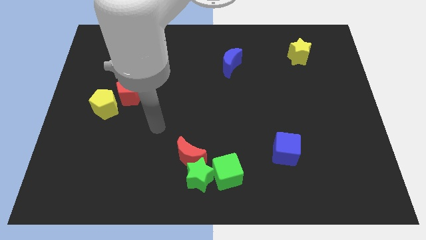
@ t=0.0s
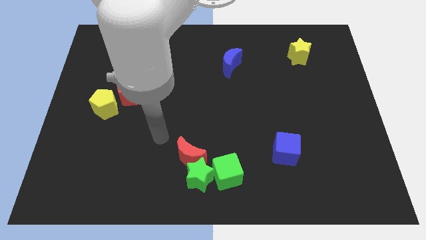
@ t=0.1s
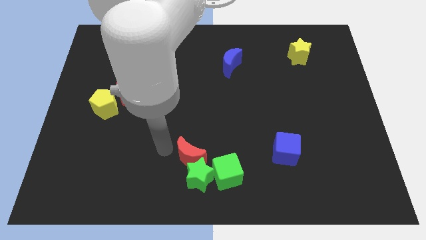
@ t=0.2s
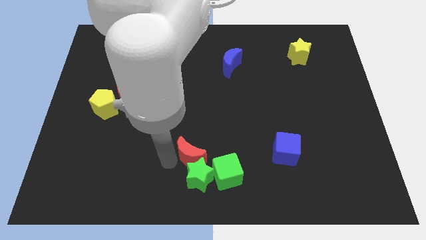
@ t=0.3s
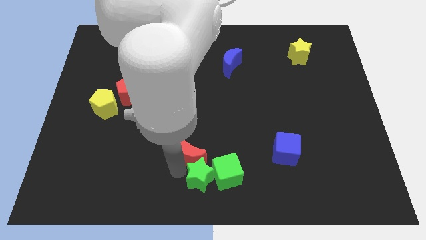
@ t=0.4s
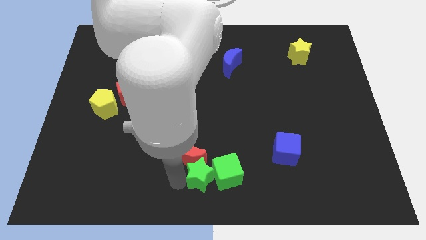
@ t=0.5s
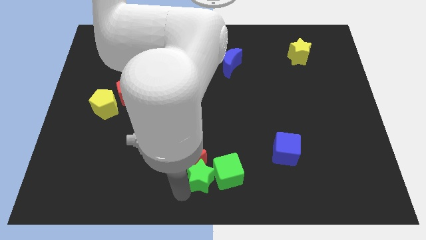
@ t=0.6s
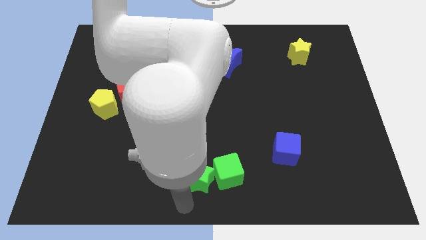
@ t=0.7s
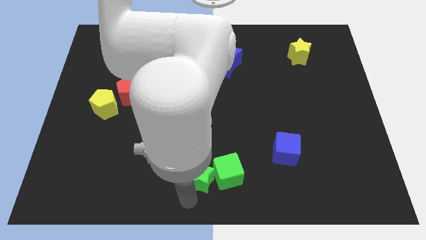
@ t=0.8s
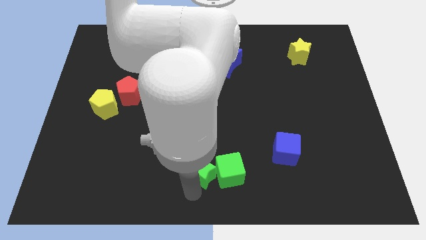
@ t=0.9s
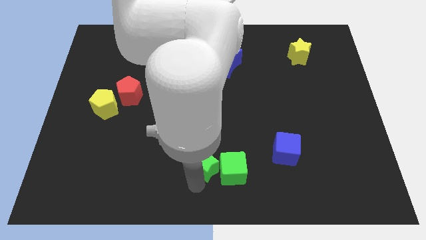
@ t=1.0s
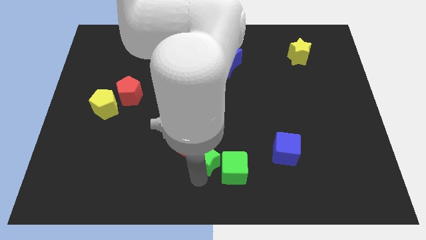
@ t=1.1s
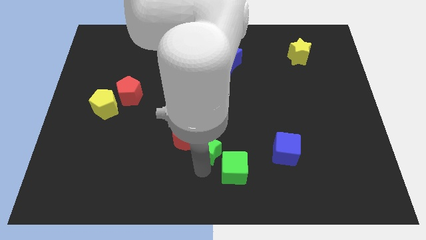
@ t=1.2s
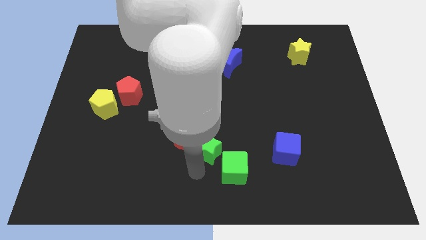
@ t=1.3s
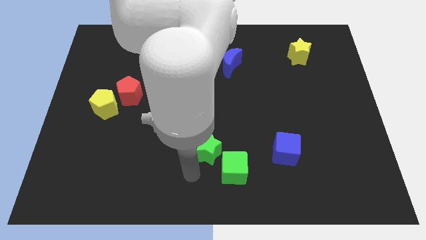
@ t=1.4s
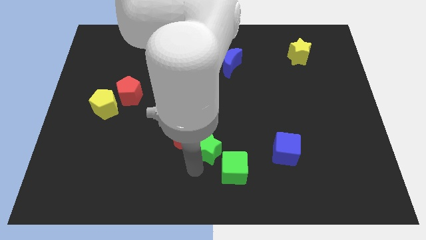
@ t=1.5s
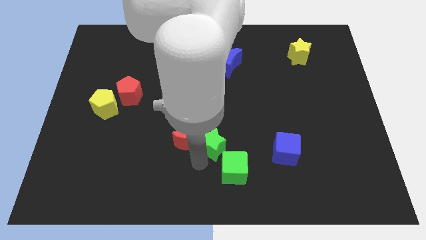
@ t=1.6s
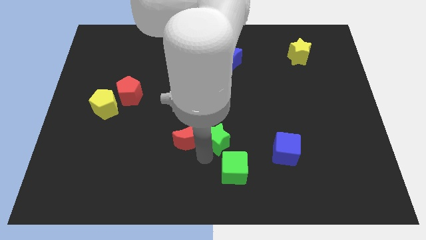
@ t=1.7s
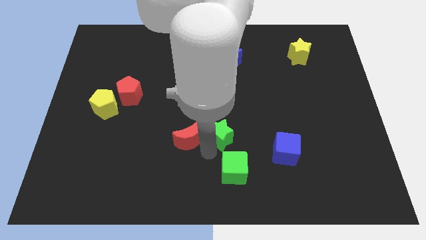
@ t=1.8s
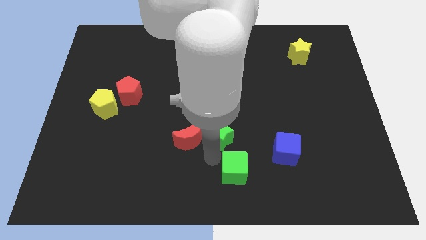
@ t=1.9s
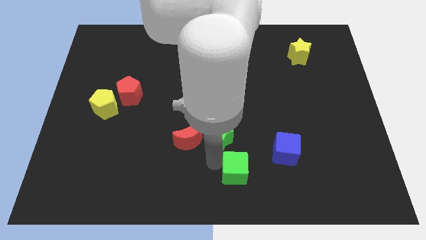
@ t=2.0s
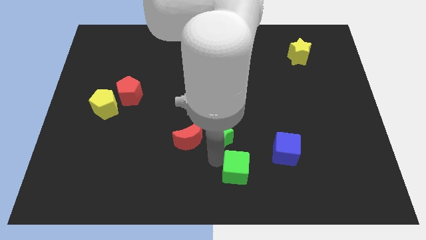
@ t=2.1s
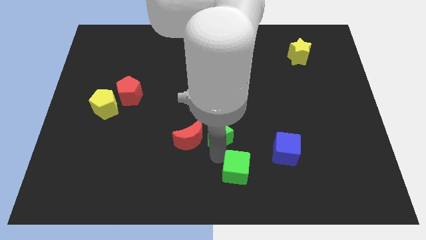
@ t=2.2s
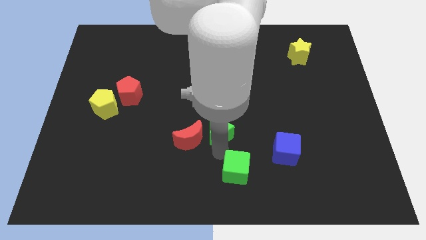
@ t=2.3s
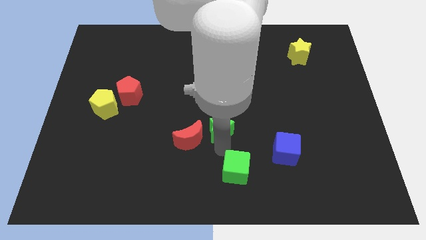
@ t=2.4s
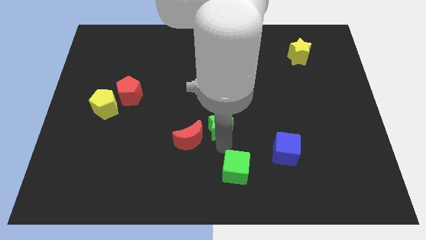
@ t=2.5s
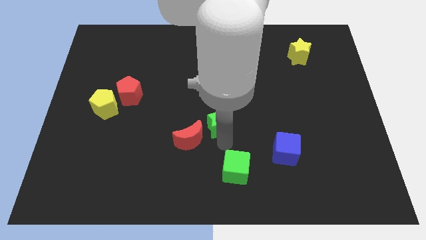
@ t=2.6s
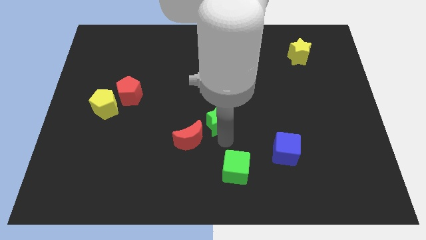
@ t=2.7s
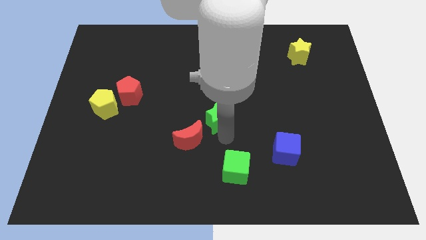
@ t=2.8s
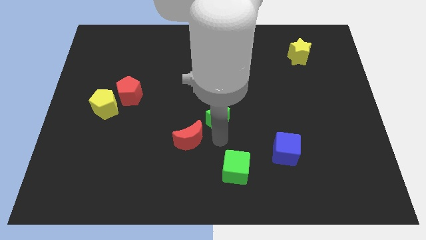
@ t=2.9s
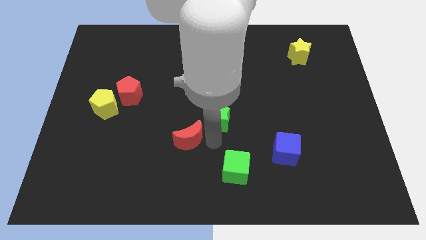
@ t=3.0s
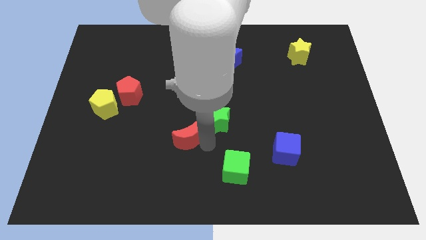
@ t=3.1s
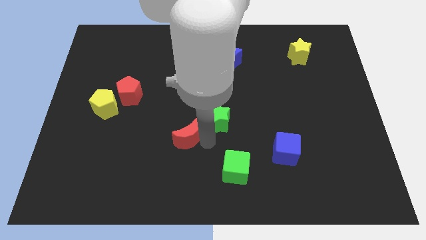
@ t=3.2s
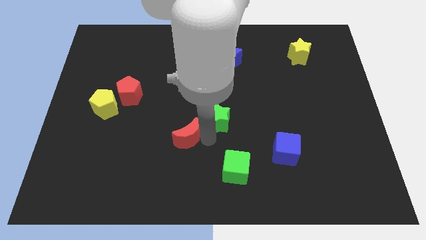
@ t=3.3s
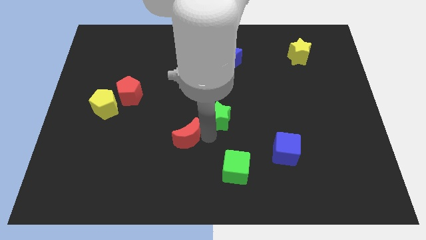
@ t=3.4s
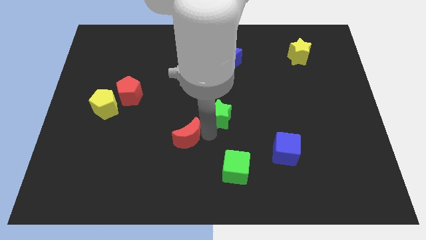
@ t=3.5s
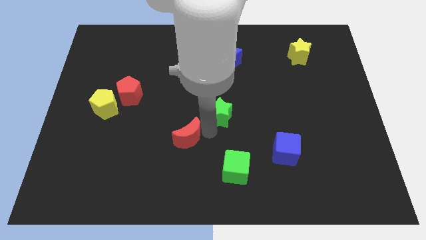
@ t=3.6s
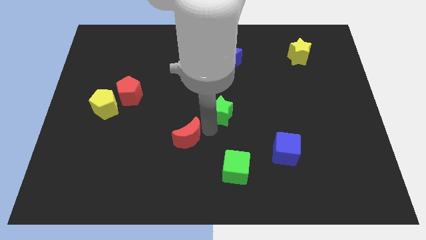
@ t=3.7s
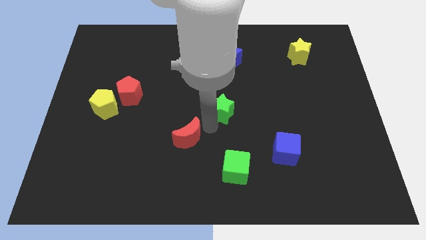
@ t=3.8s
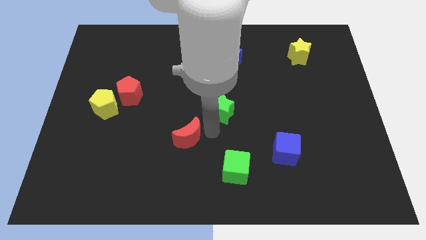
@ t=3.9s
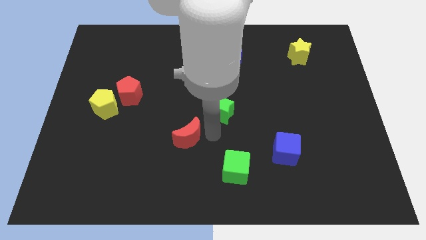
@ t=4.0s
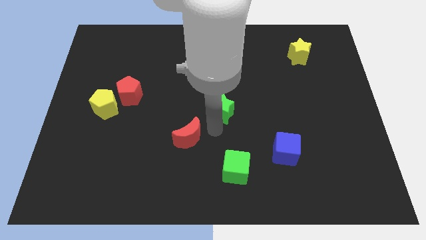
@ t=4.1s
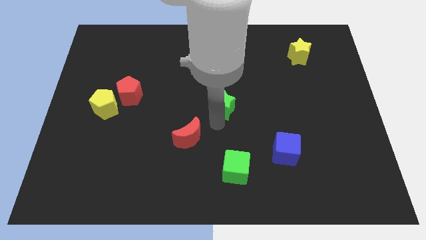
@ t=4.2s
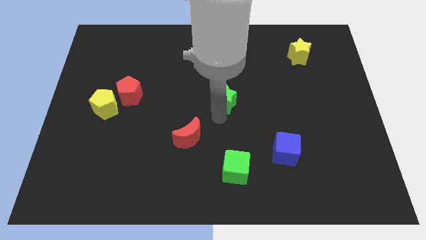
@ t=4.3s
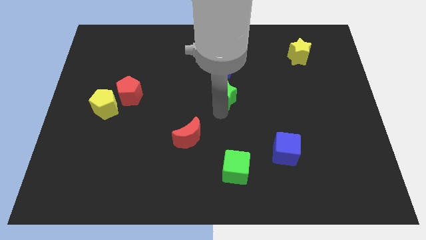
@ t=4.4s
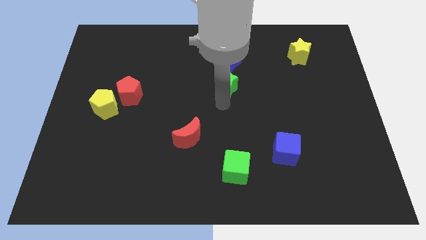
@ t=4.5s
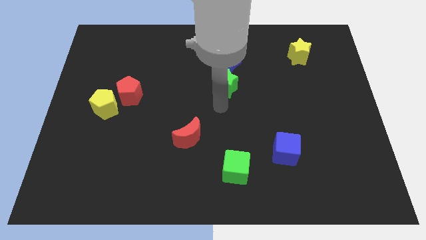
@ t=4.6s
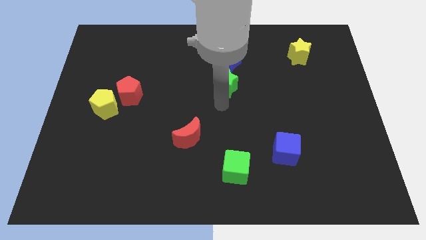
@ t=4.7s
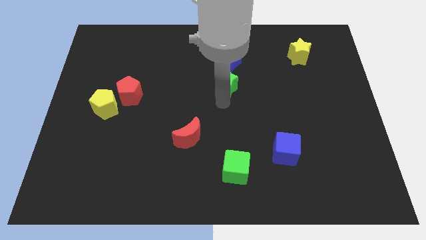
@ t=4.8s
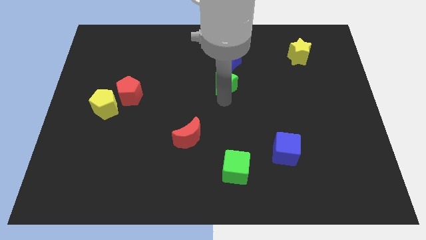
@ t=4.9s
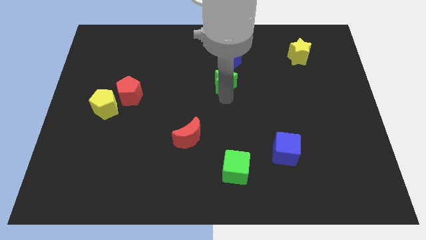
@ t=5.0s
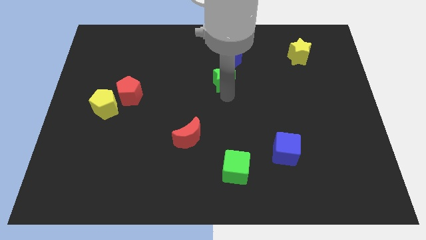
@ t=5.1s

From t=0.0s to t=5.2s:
put the green star close to the blue moon

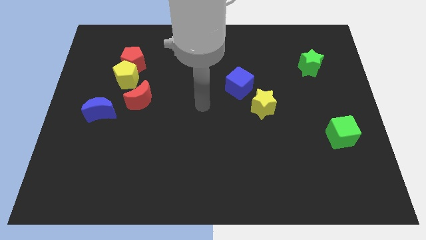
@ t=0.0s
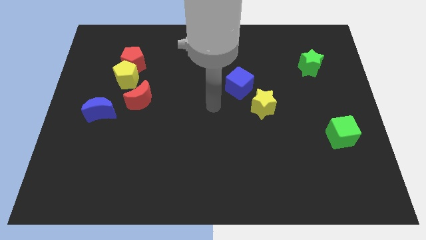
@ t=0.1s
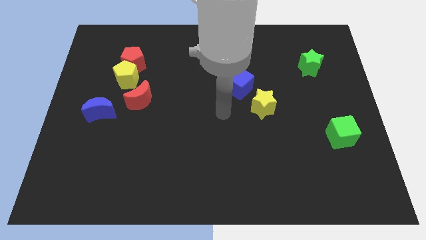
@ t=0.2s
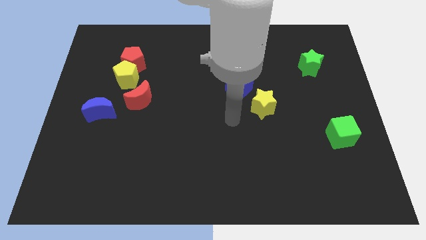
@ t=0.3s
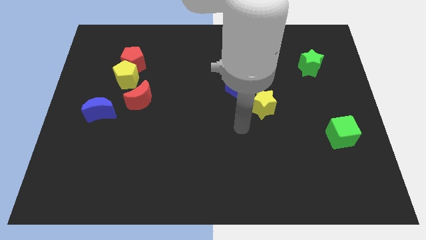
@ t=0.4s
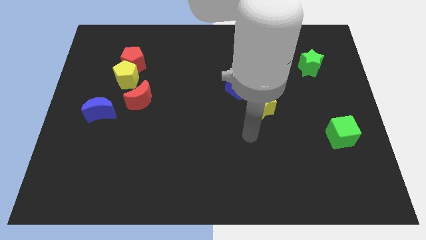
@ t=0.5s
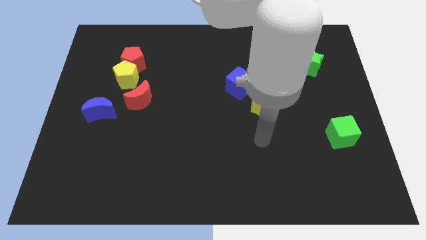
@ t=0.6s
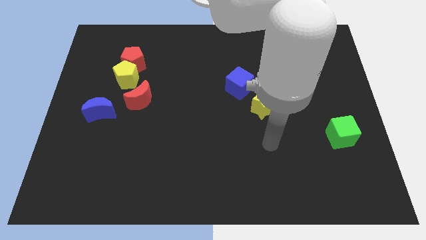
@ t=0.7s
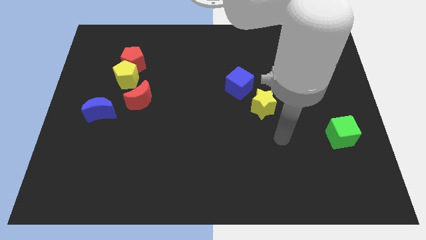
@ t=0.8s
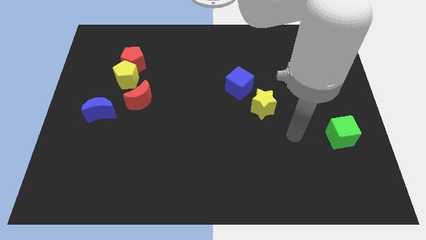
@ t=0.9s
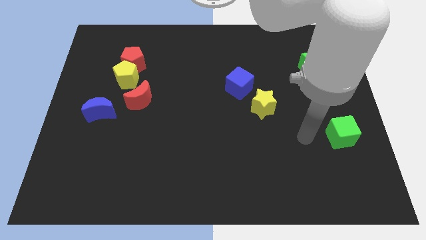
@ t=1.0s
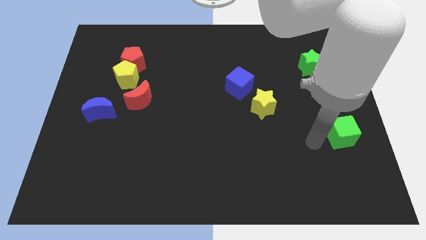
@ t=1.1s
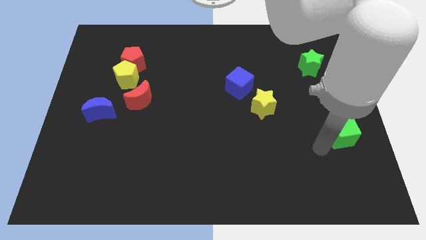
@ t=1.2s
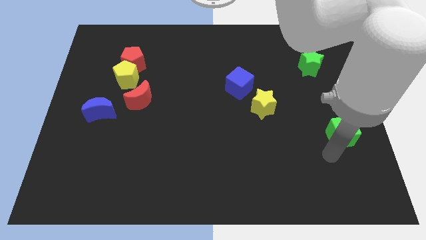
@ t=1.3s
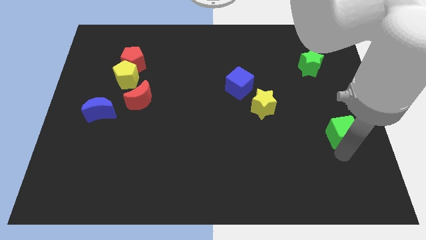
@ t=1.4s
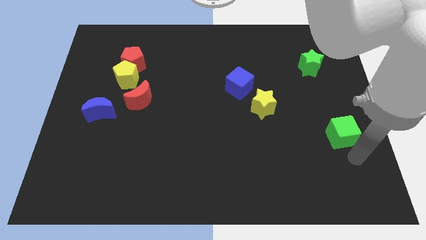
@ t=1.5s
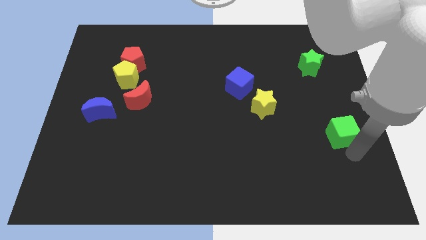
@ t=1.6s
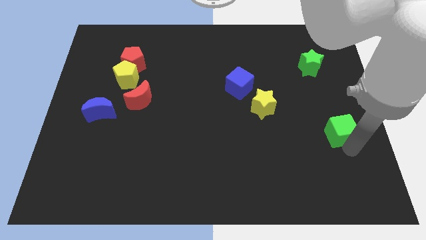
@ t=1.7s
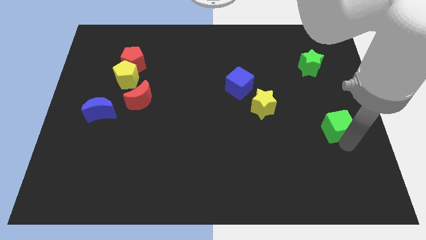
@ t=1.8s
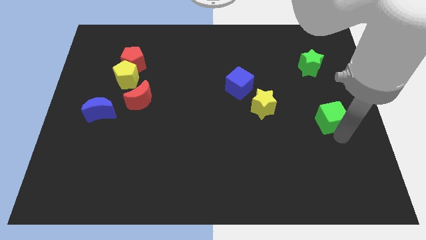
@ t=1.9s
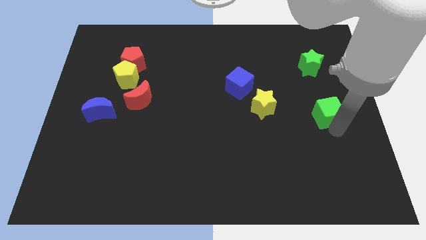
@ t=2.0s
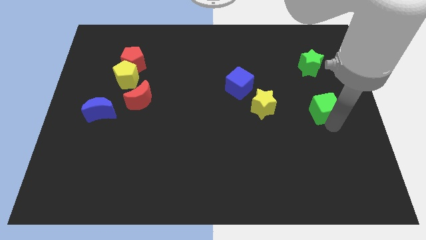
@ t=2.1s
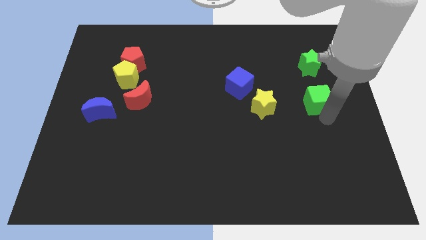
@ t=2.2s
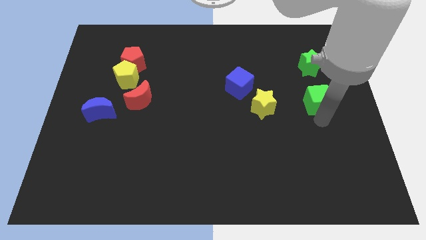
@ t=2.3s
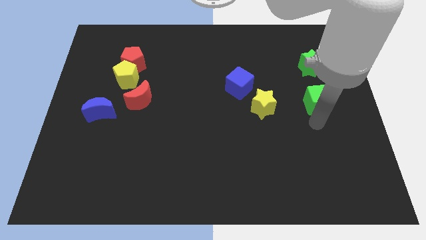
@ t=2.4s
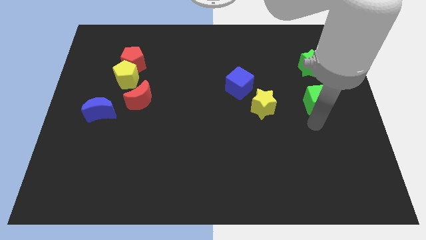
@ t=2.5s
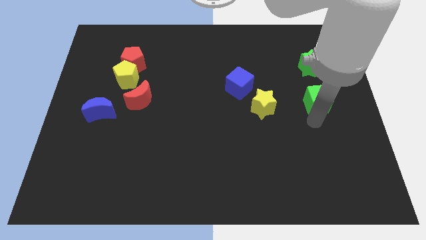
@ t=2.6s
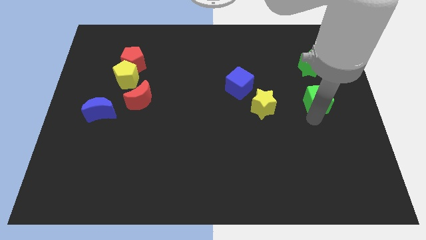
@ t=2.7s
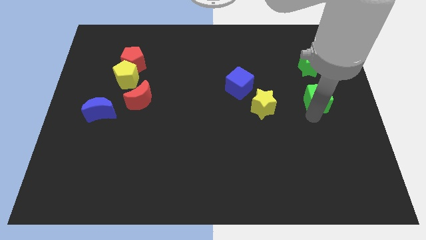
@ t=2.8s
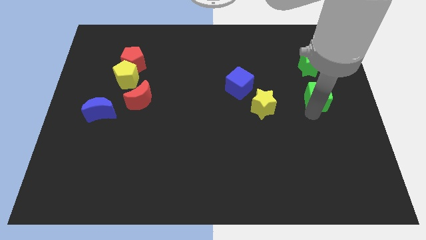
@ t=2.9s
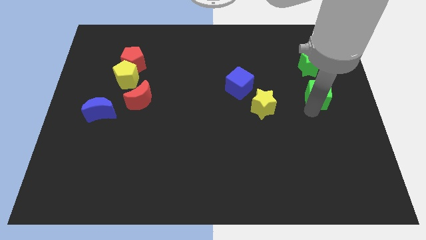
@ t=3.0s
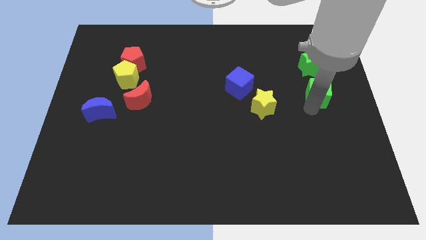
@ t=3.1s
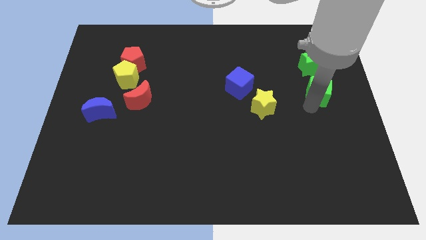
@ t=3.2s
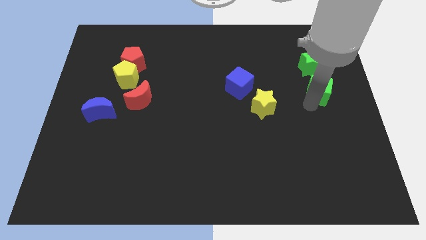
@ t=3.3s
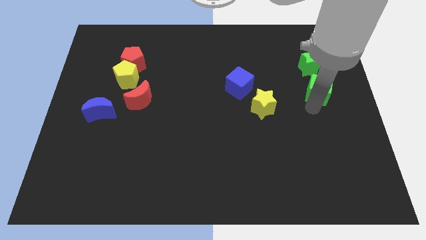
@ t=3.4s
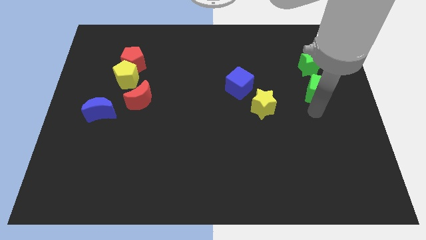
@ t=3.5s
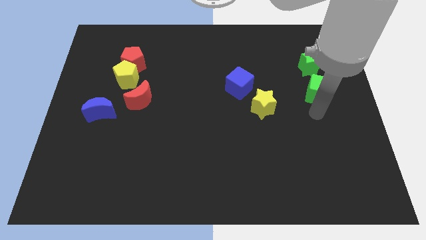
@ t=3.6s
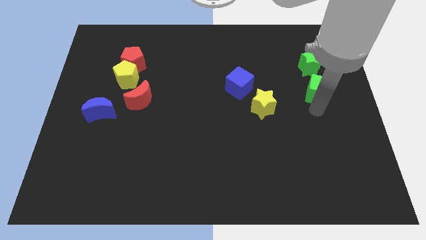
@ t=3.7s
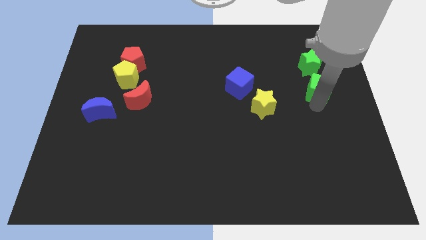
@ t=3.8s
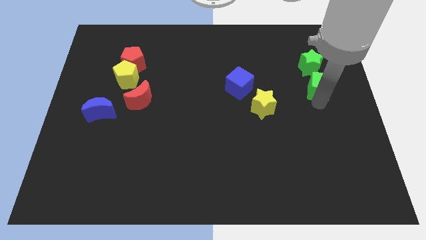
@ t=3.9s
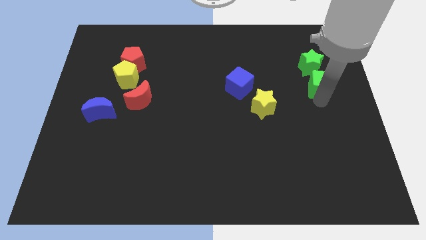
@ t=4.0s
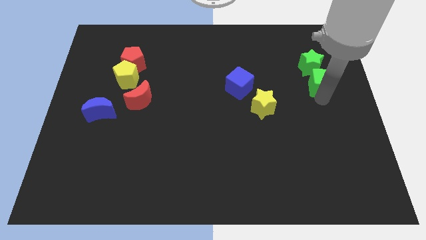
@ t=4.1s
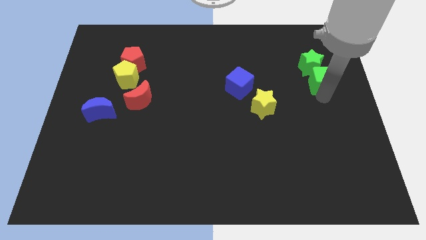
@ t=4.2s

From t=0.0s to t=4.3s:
move the green cube next to the green star
